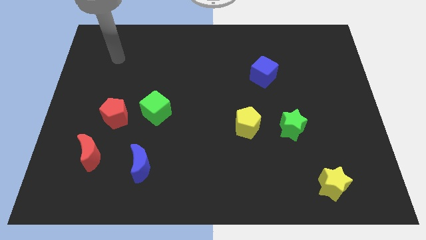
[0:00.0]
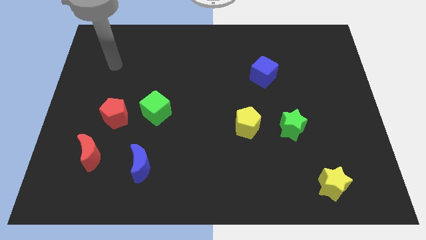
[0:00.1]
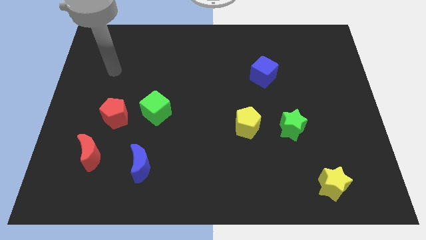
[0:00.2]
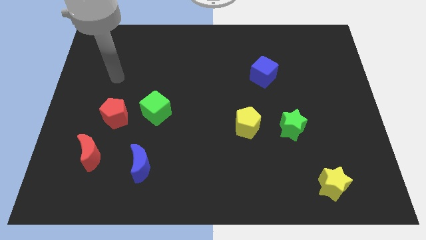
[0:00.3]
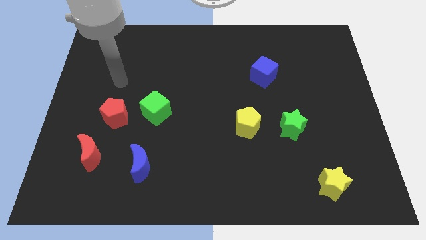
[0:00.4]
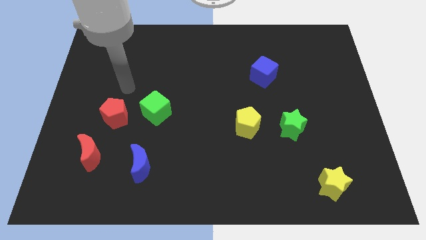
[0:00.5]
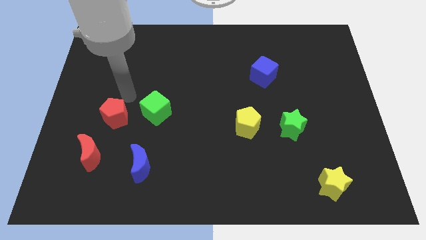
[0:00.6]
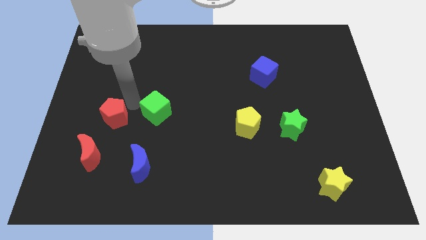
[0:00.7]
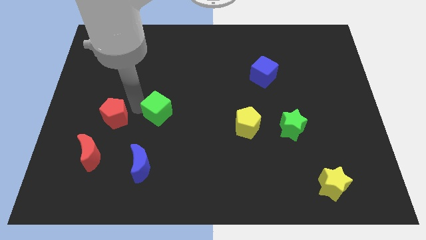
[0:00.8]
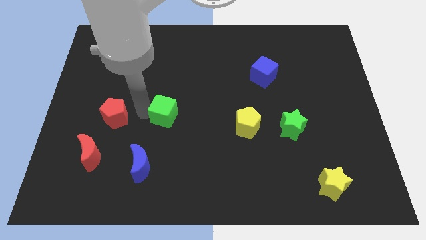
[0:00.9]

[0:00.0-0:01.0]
move the red pentagon away from the green cube

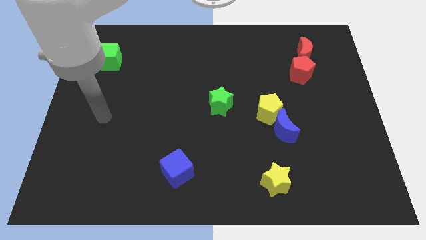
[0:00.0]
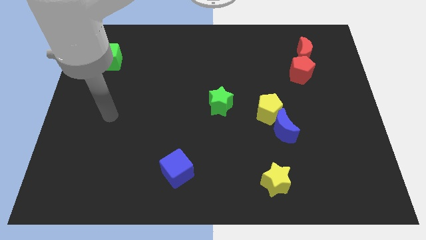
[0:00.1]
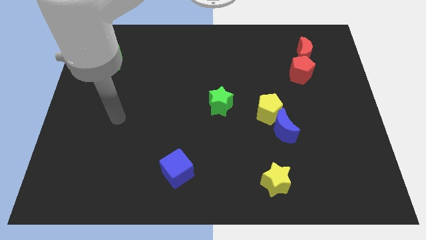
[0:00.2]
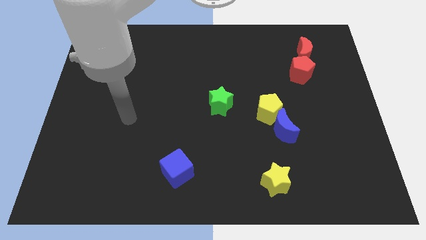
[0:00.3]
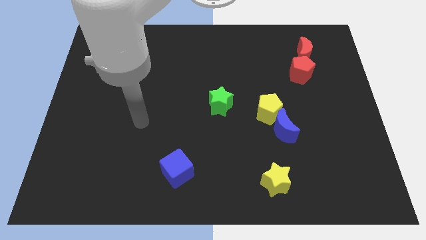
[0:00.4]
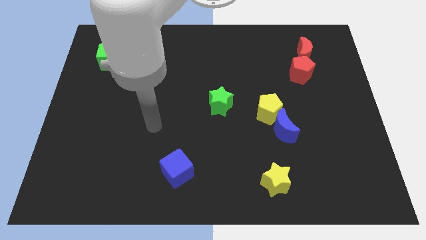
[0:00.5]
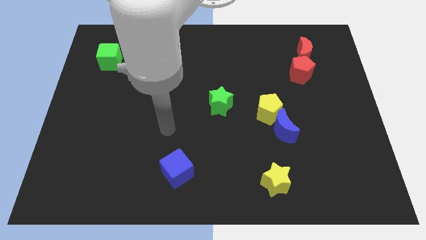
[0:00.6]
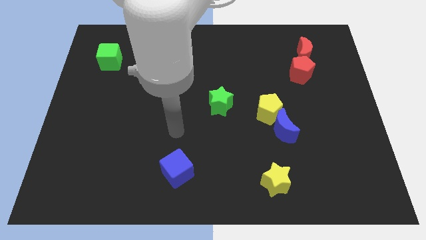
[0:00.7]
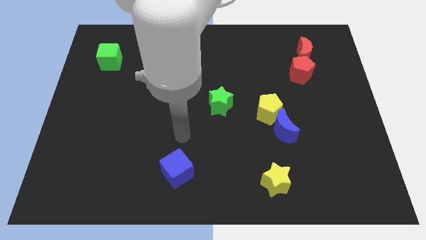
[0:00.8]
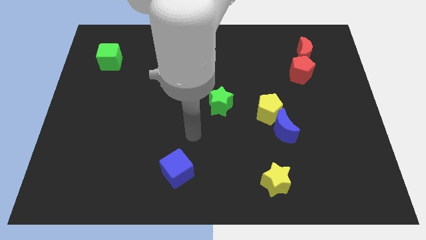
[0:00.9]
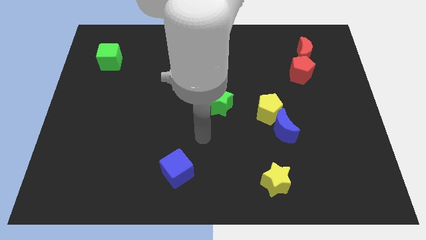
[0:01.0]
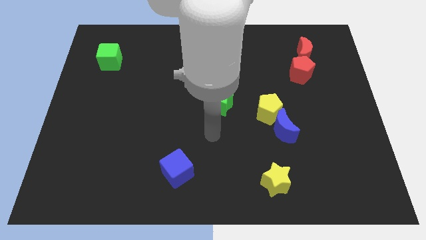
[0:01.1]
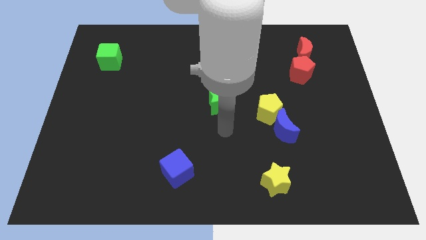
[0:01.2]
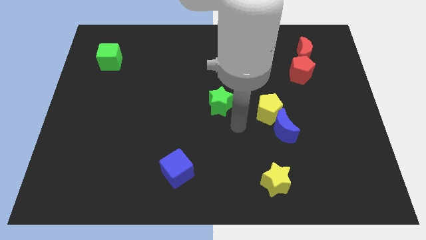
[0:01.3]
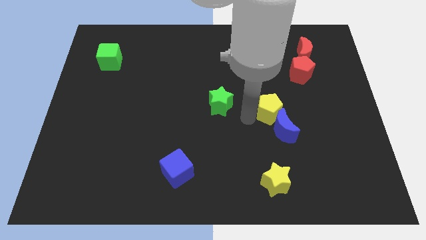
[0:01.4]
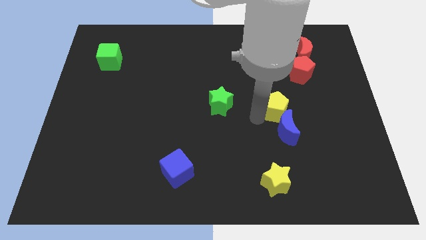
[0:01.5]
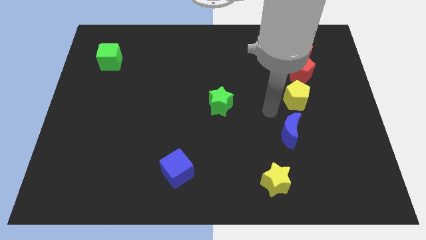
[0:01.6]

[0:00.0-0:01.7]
move the blue moon away from the yellow pentagon

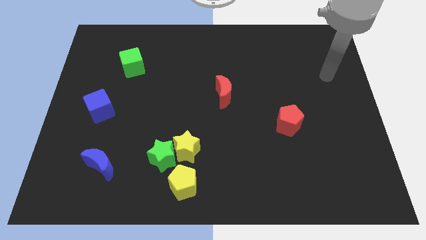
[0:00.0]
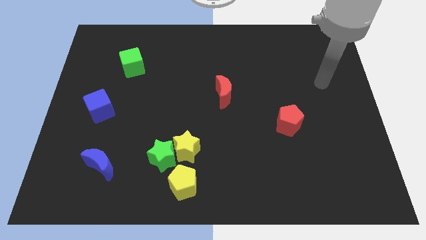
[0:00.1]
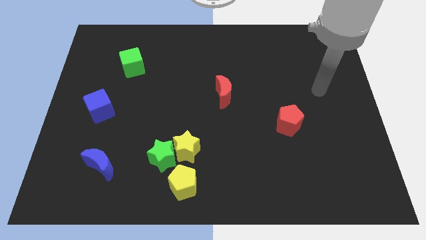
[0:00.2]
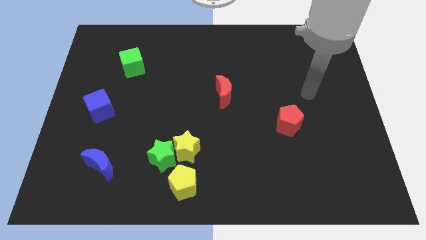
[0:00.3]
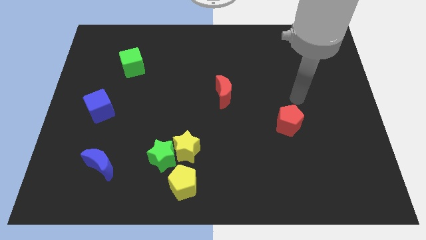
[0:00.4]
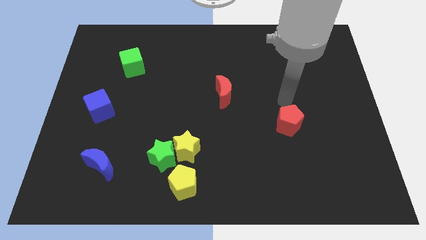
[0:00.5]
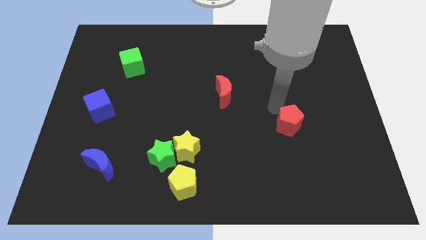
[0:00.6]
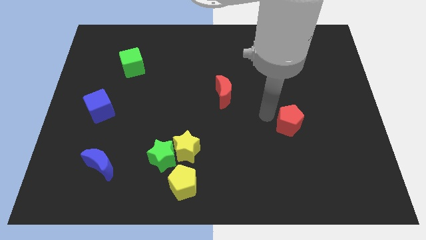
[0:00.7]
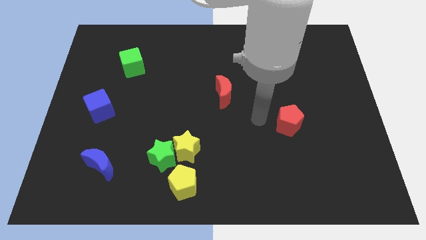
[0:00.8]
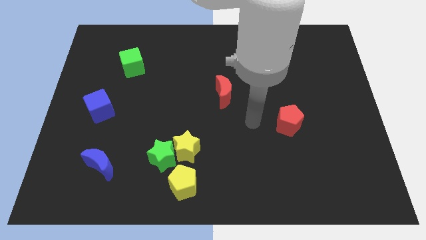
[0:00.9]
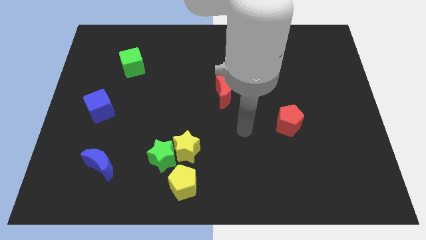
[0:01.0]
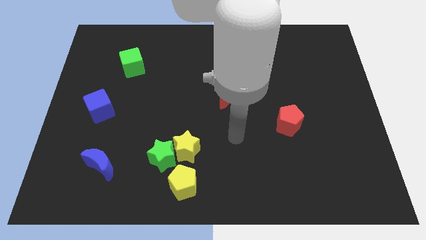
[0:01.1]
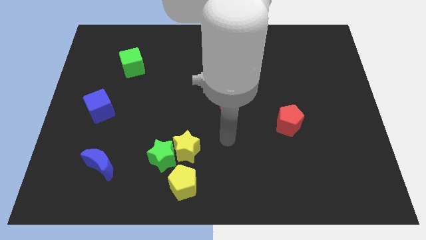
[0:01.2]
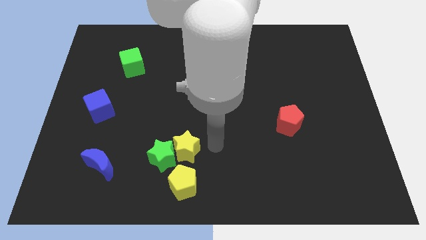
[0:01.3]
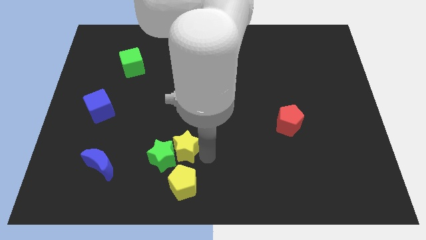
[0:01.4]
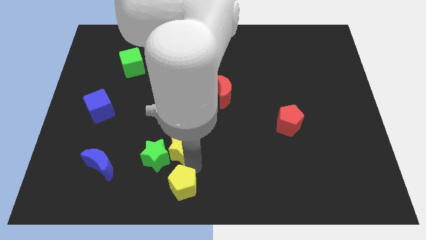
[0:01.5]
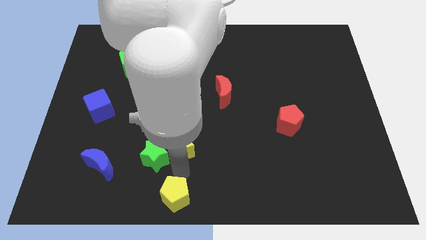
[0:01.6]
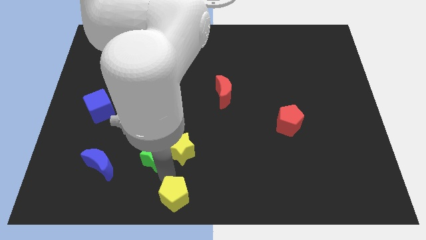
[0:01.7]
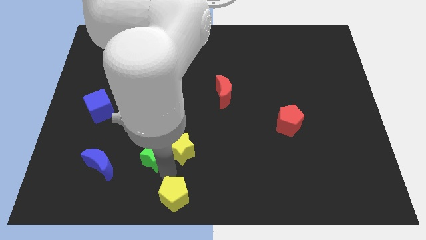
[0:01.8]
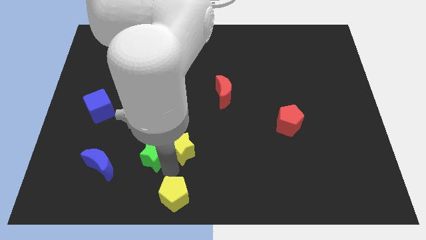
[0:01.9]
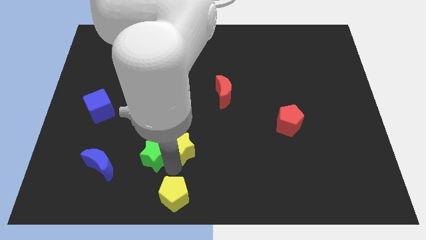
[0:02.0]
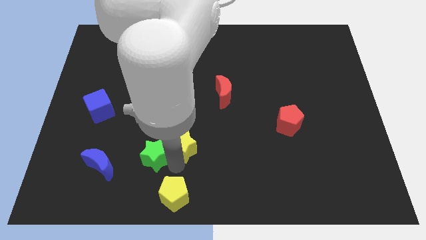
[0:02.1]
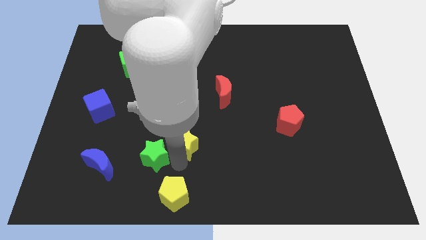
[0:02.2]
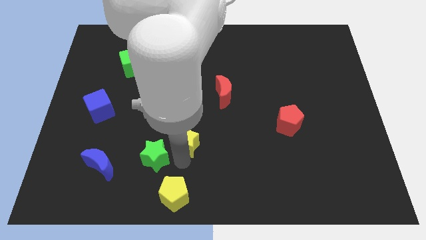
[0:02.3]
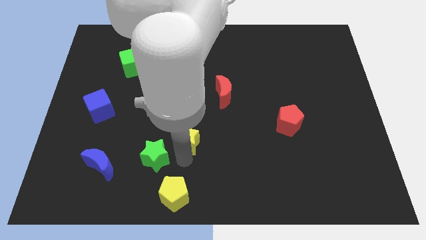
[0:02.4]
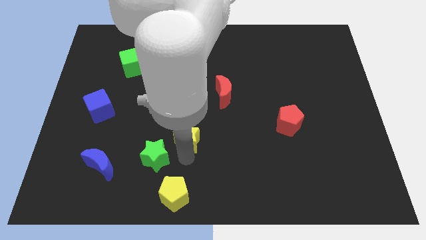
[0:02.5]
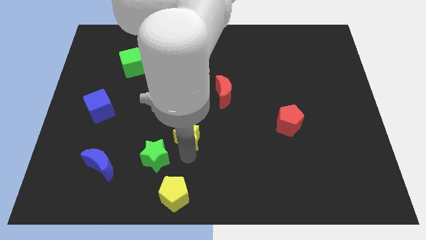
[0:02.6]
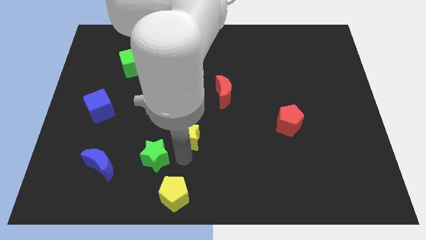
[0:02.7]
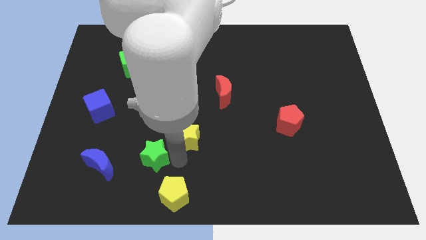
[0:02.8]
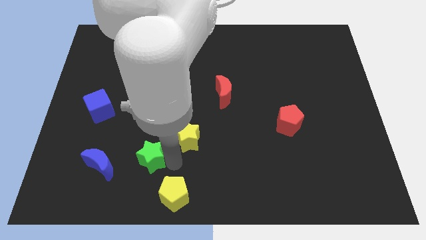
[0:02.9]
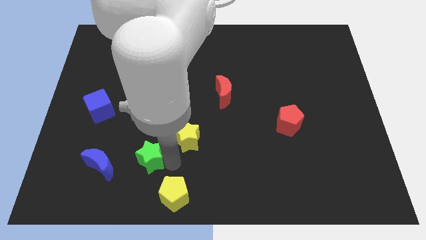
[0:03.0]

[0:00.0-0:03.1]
pull the yellow star apart from the green star and yellow pentagon

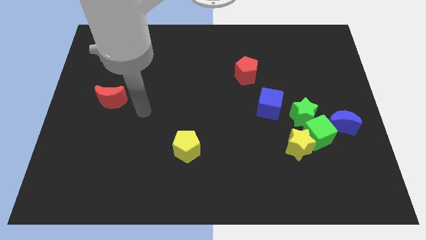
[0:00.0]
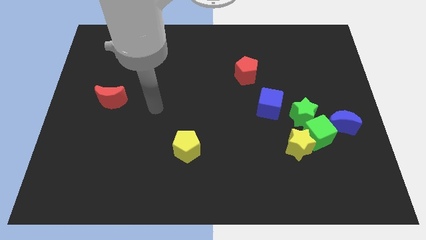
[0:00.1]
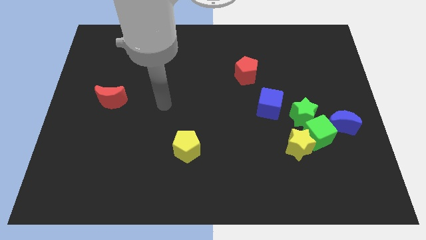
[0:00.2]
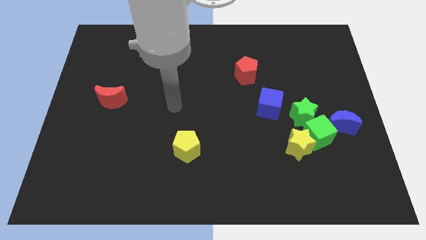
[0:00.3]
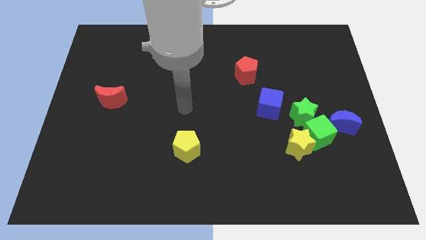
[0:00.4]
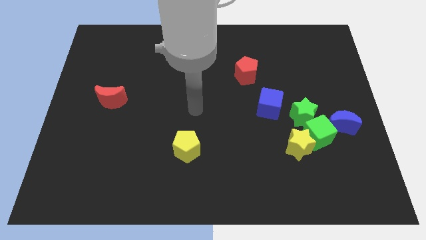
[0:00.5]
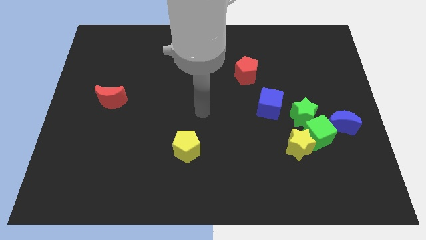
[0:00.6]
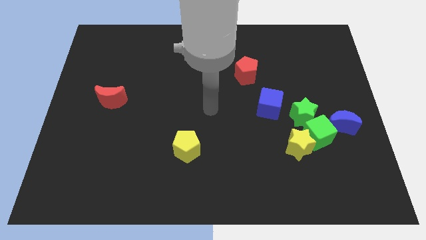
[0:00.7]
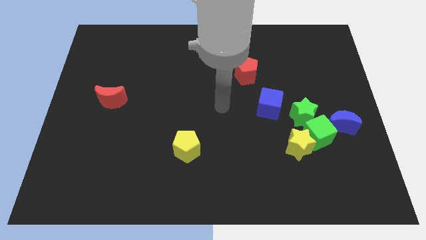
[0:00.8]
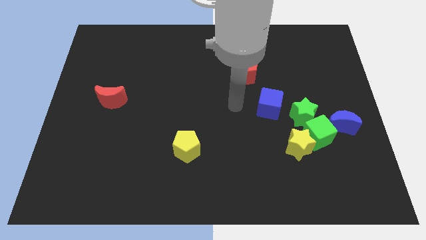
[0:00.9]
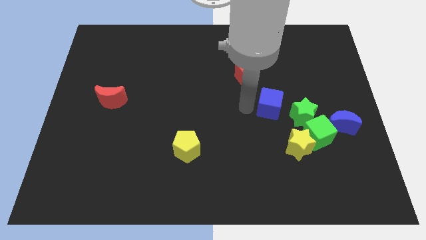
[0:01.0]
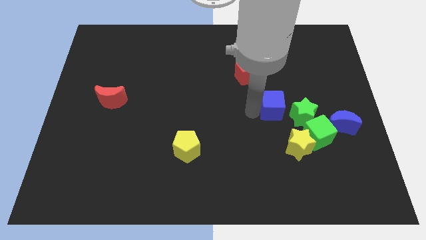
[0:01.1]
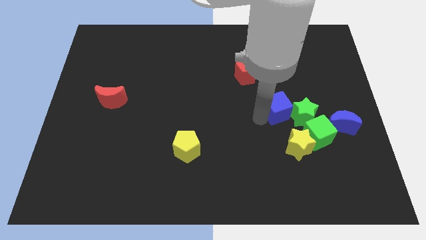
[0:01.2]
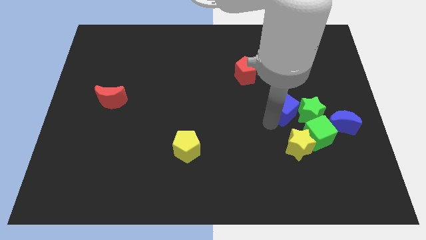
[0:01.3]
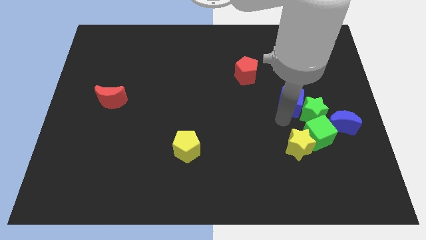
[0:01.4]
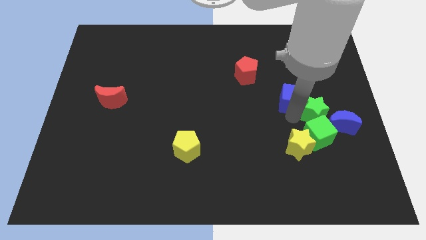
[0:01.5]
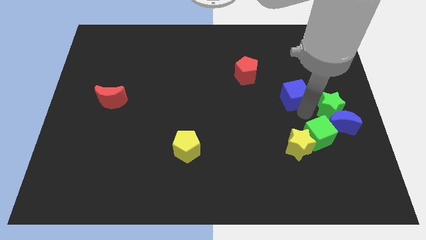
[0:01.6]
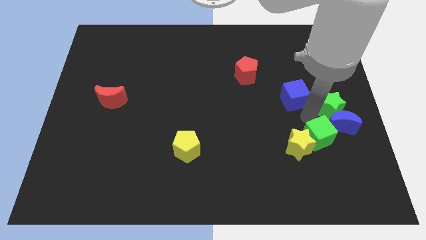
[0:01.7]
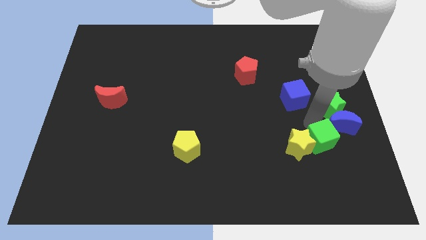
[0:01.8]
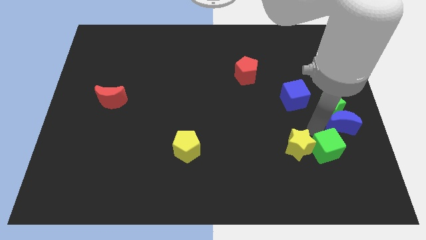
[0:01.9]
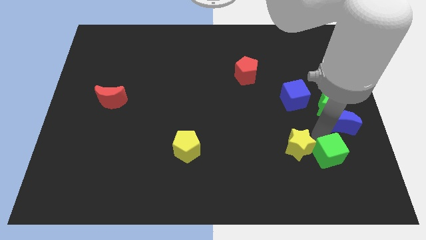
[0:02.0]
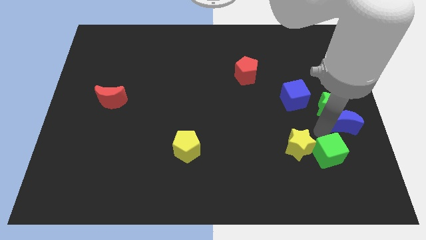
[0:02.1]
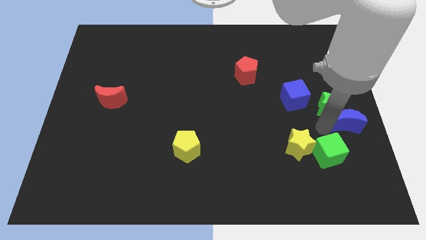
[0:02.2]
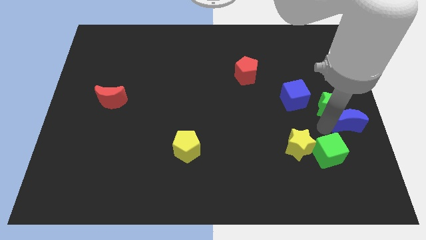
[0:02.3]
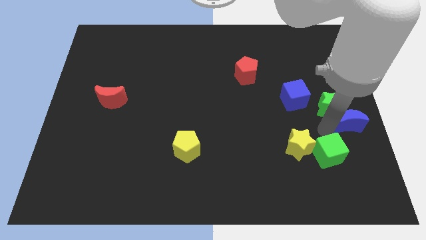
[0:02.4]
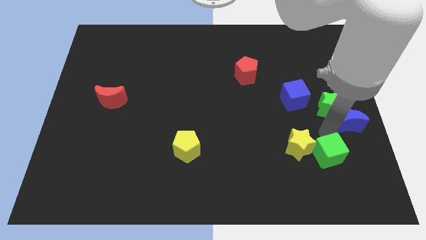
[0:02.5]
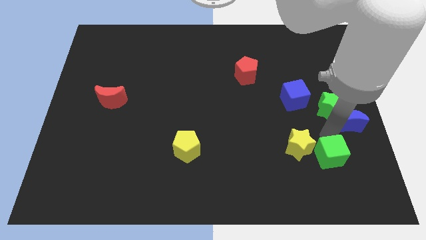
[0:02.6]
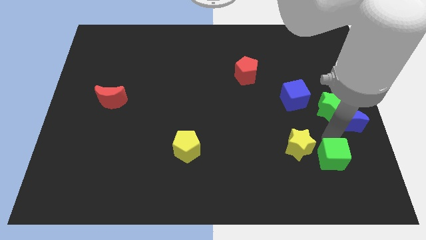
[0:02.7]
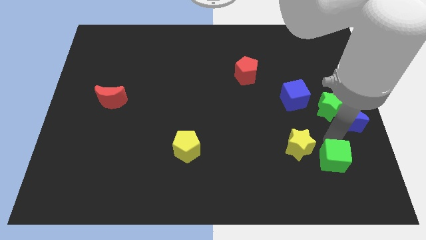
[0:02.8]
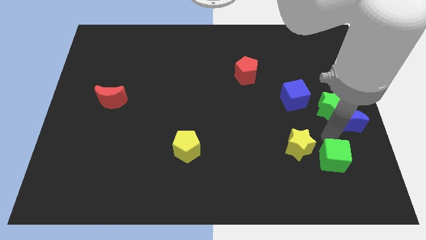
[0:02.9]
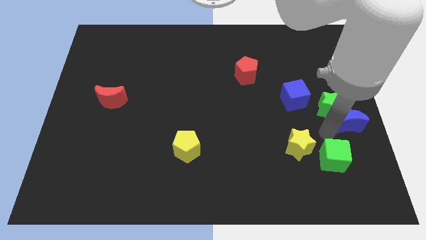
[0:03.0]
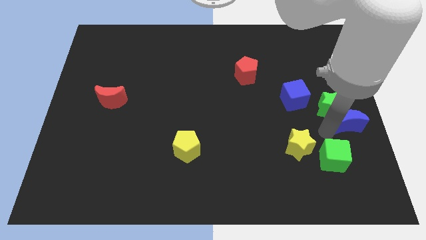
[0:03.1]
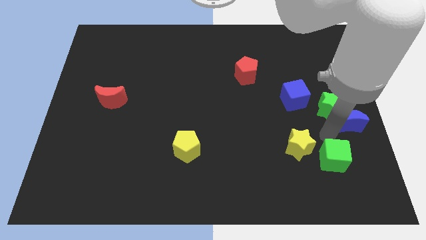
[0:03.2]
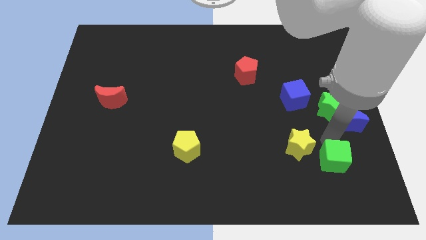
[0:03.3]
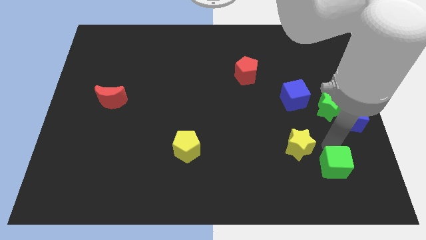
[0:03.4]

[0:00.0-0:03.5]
move the green cube away from the yellow star, green star, and blue moon
